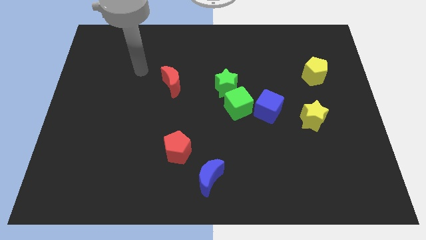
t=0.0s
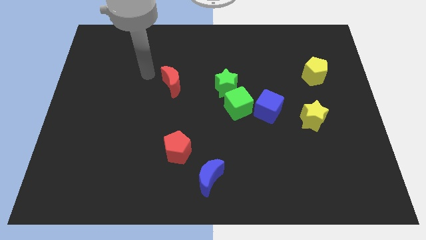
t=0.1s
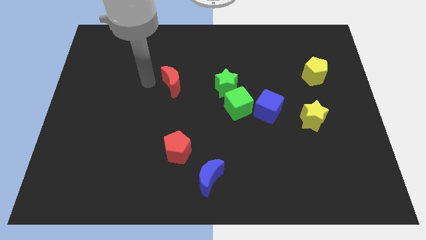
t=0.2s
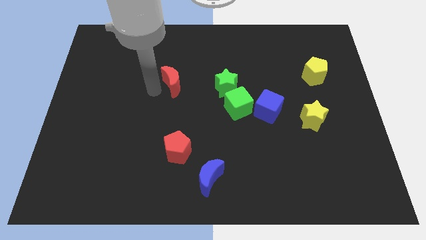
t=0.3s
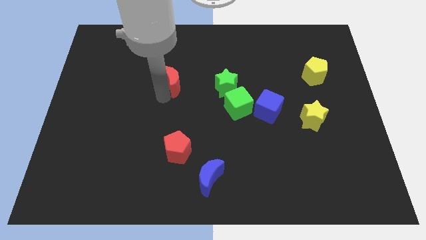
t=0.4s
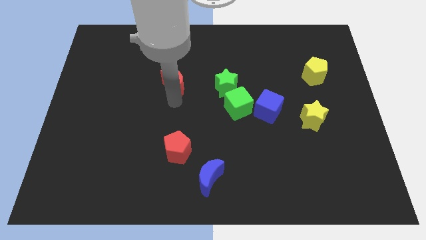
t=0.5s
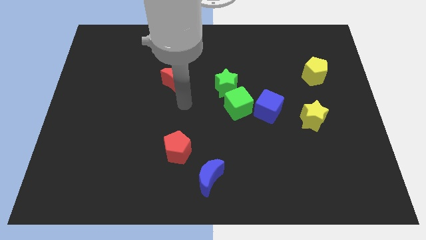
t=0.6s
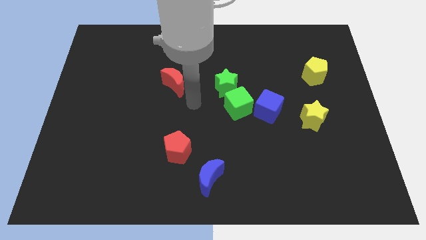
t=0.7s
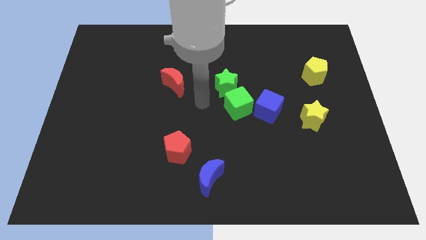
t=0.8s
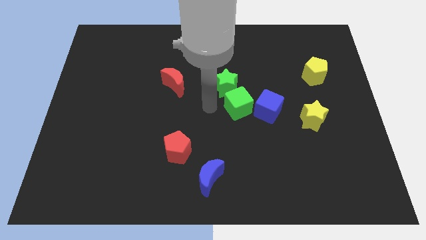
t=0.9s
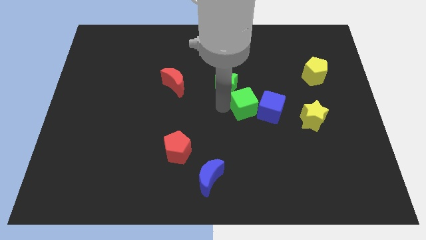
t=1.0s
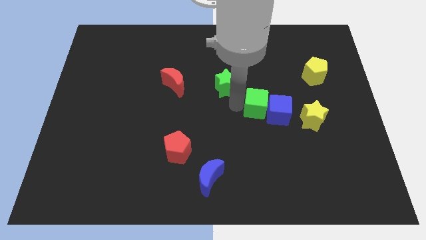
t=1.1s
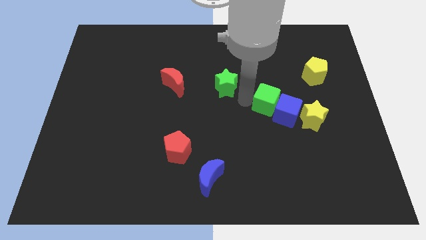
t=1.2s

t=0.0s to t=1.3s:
separate the green star from the green cube

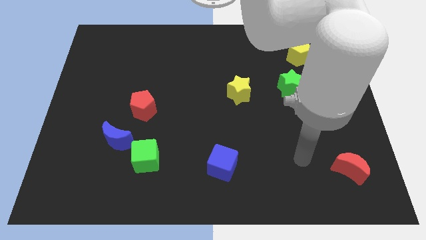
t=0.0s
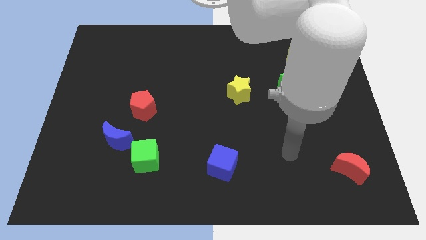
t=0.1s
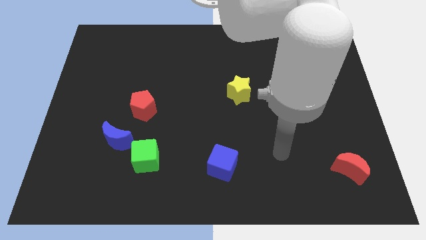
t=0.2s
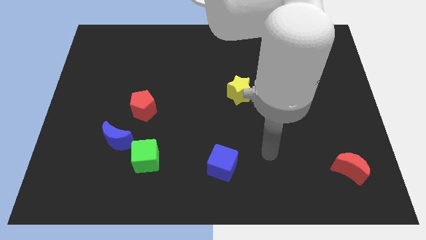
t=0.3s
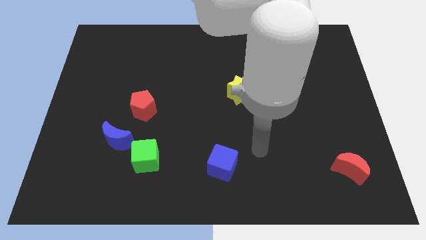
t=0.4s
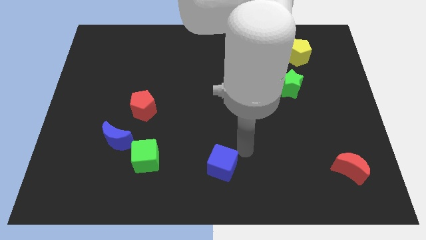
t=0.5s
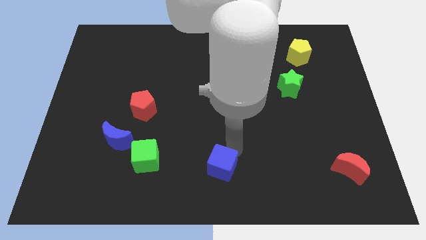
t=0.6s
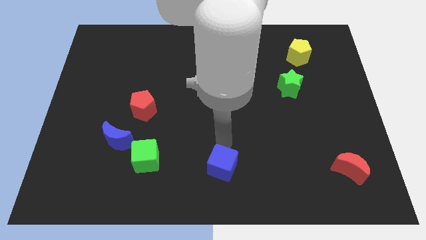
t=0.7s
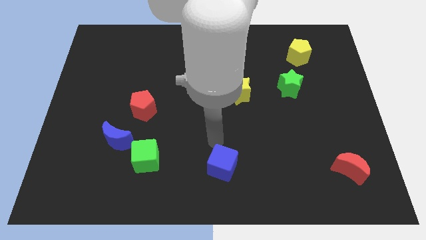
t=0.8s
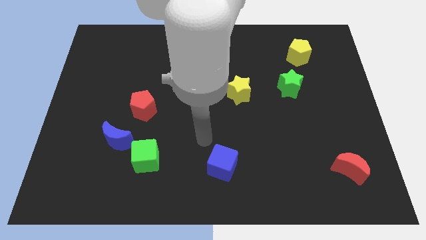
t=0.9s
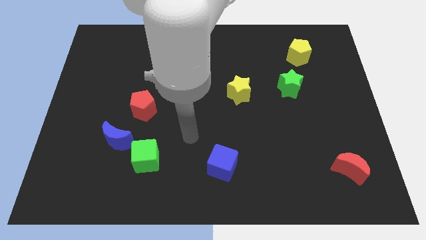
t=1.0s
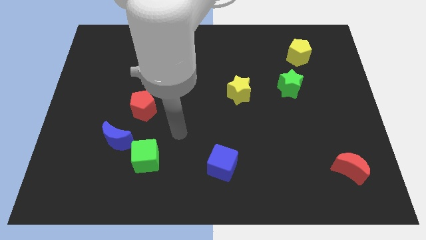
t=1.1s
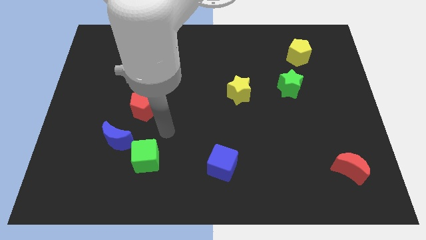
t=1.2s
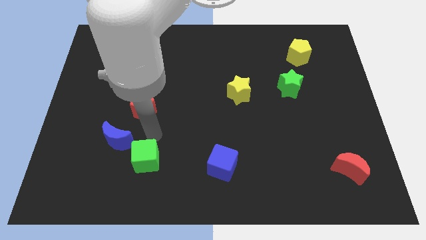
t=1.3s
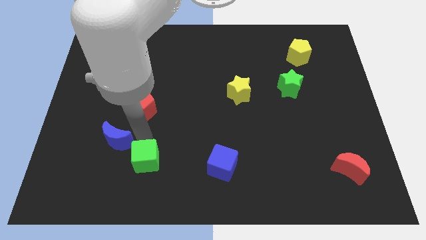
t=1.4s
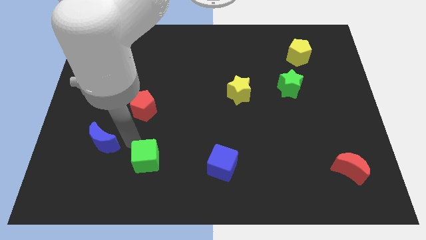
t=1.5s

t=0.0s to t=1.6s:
separate the green cube from the blue moon

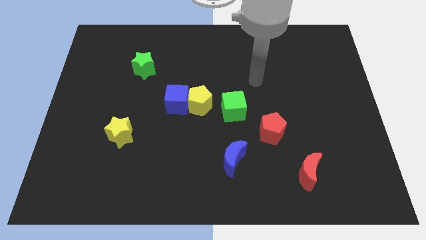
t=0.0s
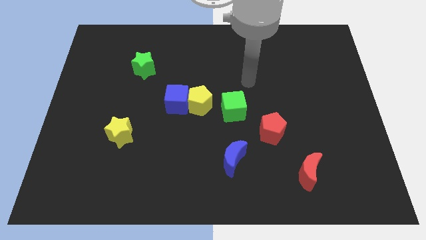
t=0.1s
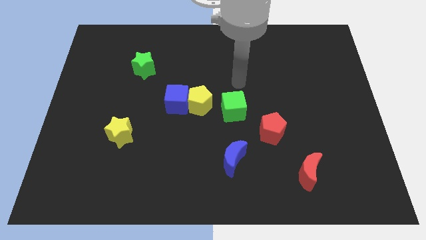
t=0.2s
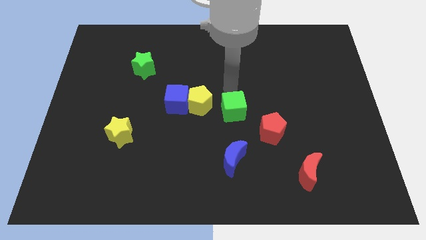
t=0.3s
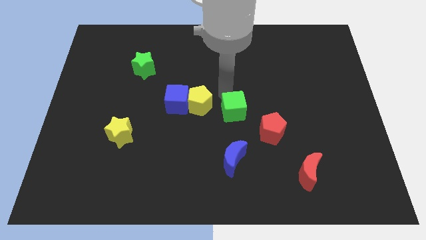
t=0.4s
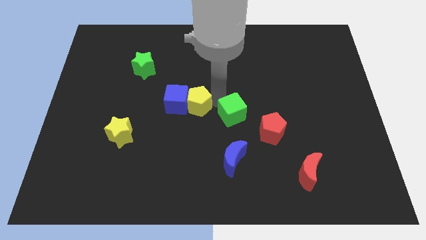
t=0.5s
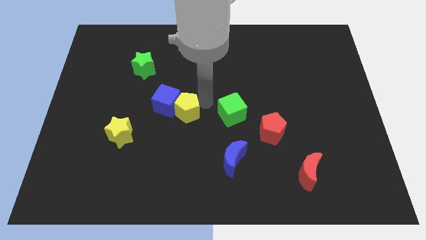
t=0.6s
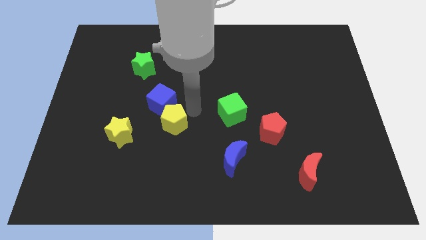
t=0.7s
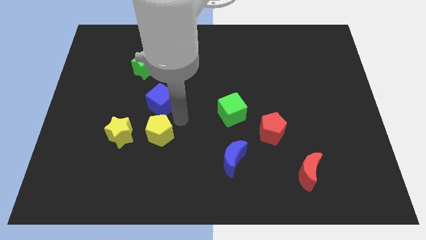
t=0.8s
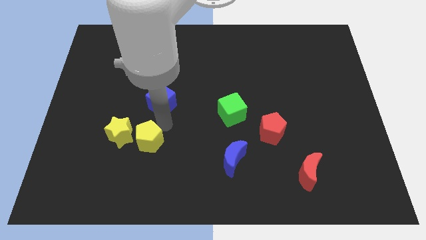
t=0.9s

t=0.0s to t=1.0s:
move the blue cube away from the yellow pentagon

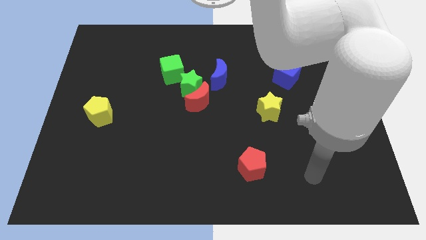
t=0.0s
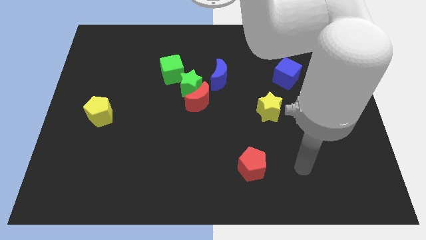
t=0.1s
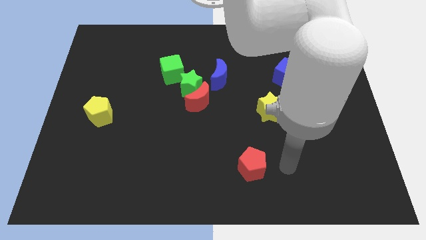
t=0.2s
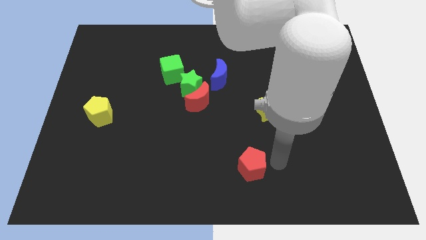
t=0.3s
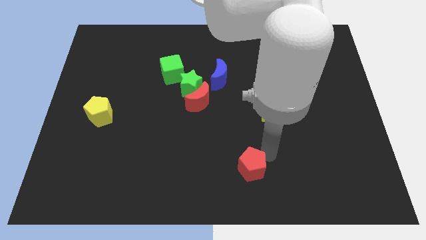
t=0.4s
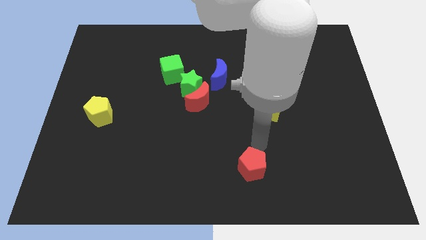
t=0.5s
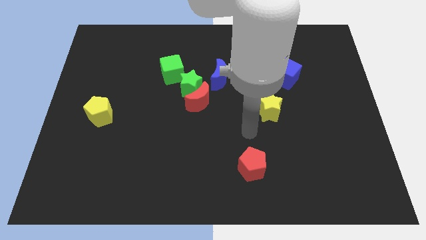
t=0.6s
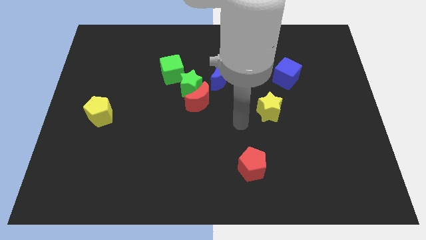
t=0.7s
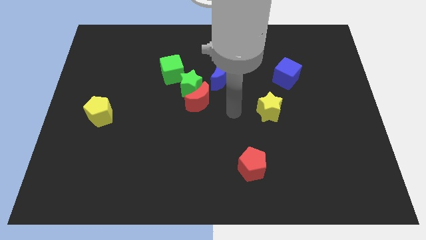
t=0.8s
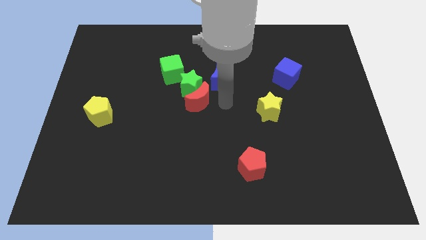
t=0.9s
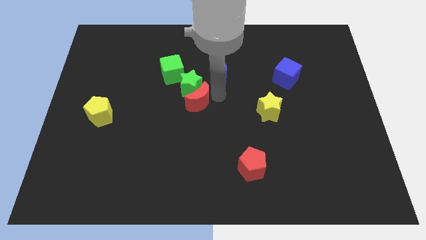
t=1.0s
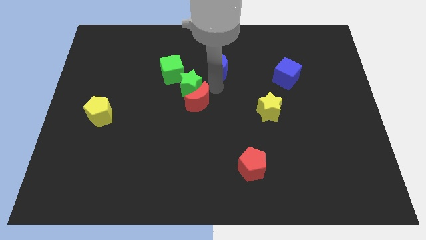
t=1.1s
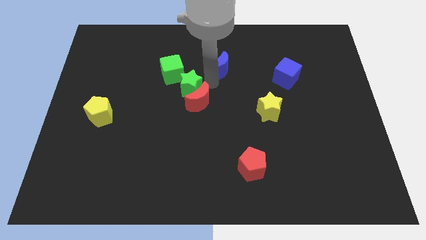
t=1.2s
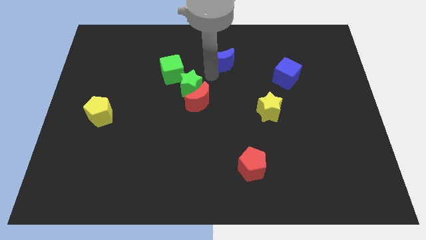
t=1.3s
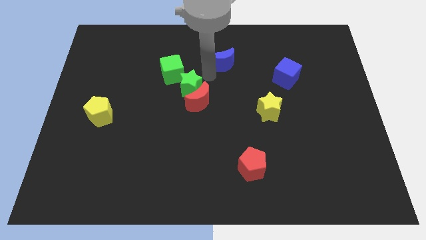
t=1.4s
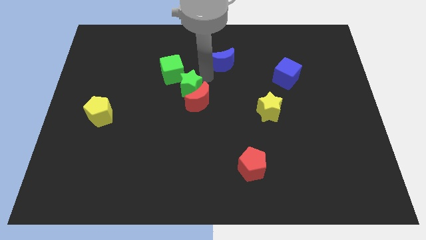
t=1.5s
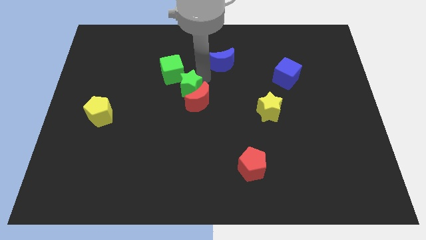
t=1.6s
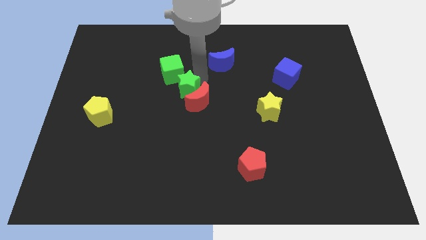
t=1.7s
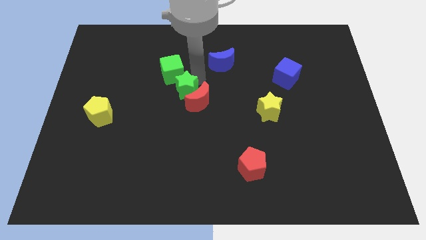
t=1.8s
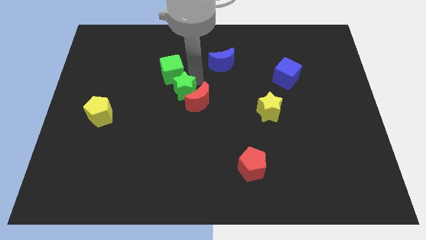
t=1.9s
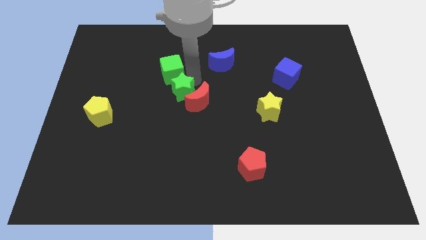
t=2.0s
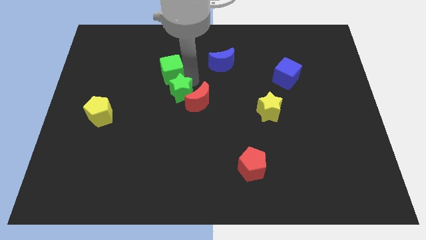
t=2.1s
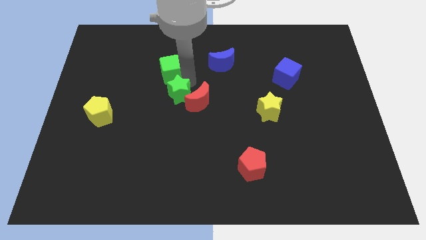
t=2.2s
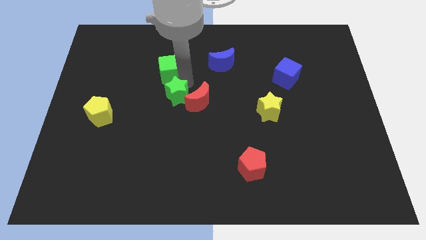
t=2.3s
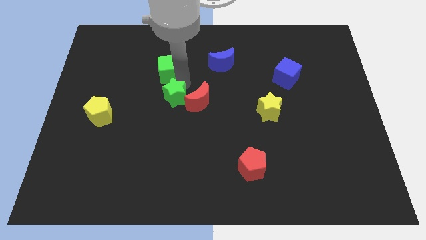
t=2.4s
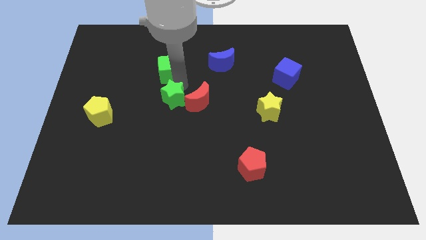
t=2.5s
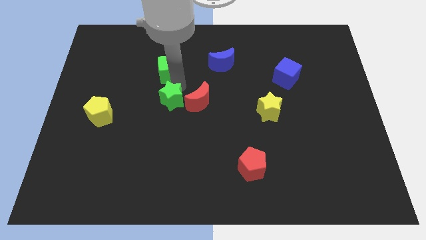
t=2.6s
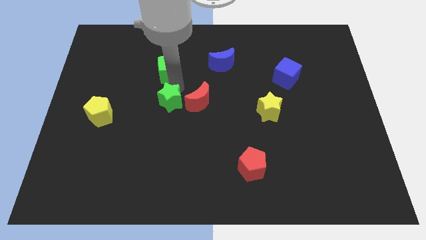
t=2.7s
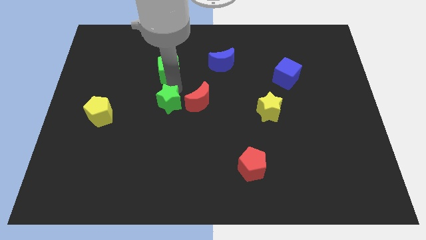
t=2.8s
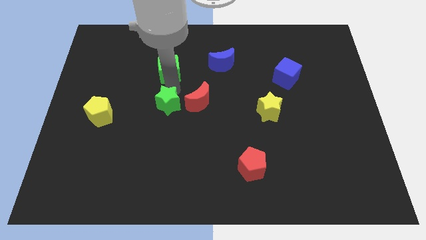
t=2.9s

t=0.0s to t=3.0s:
move the green star away from the red moon, green cube, and blue moon

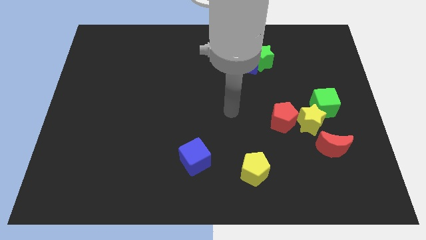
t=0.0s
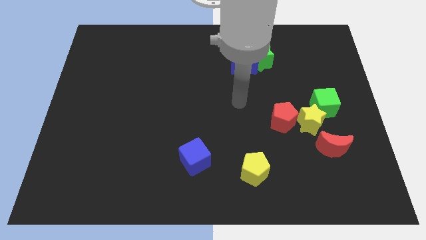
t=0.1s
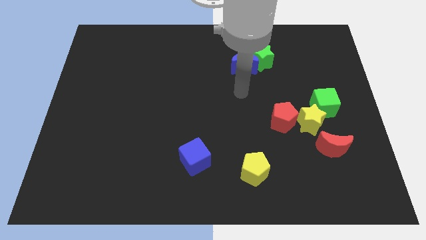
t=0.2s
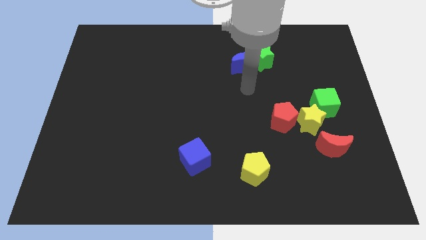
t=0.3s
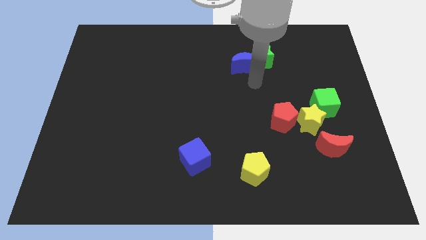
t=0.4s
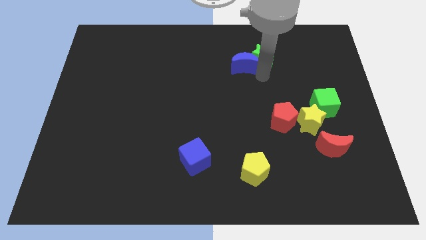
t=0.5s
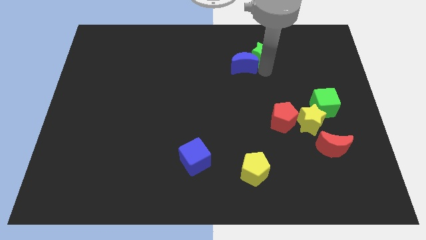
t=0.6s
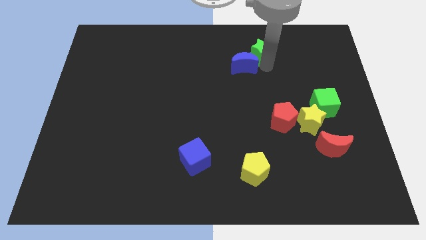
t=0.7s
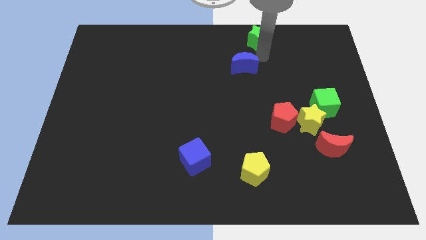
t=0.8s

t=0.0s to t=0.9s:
move the blue moon away from the green star

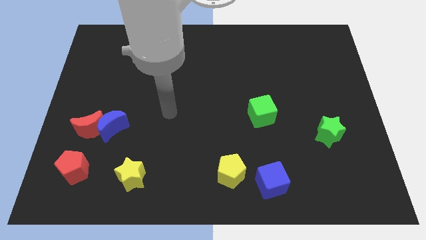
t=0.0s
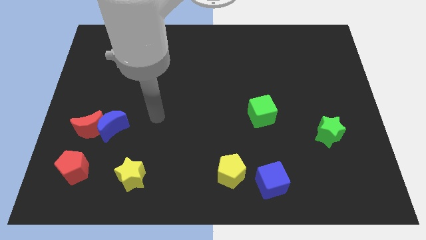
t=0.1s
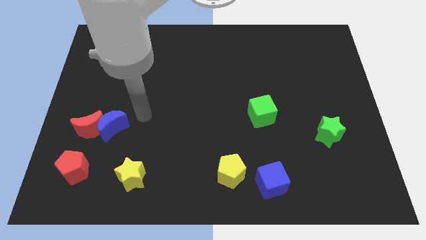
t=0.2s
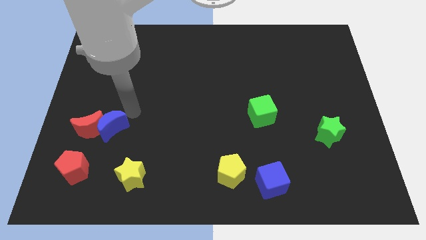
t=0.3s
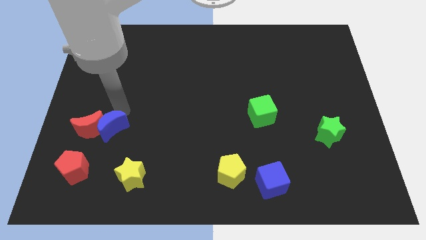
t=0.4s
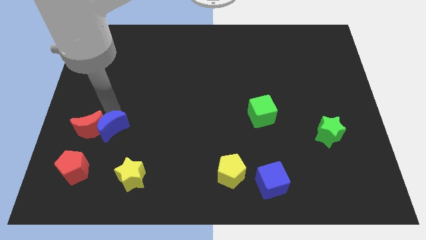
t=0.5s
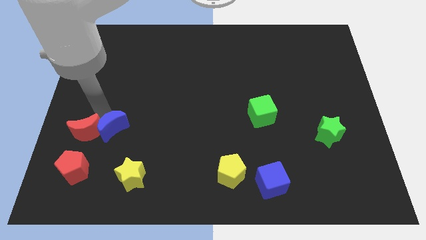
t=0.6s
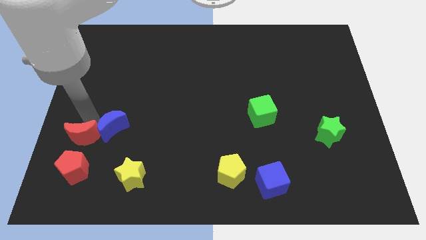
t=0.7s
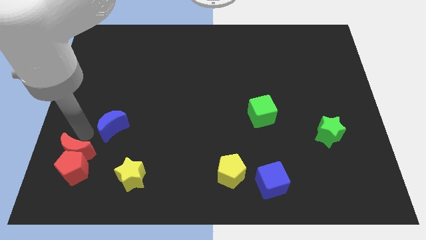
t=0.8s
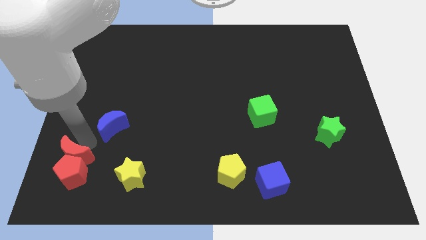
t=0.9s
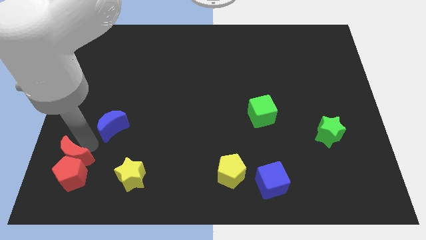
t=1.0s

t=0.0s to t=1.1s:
separate the blue moon from the red moon

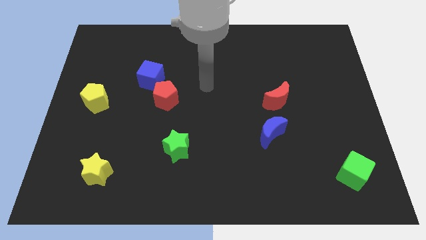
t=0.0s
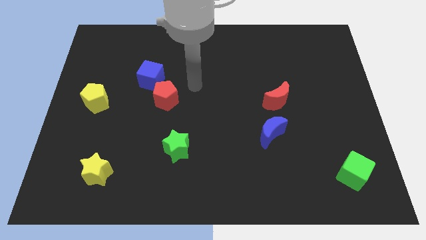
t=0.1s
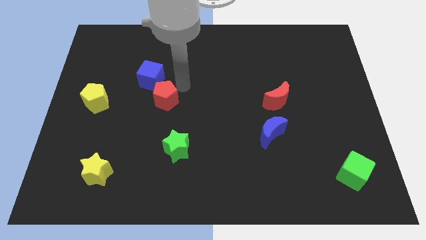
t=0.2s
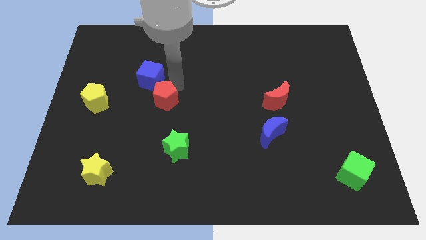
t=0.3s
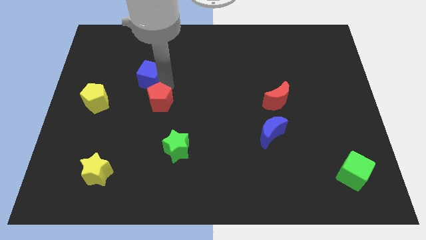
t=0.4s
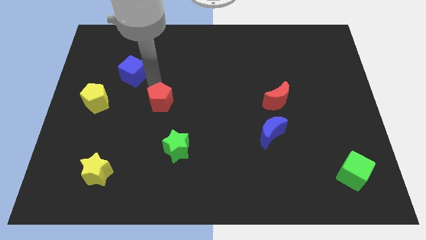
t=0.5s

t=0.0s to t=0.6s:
separate the red pentagon from the blue cube
